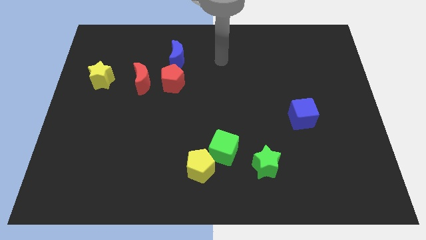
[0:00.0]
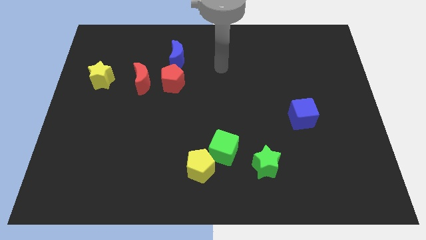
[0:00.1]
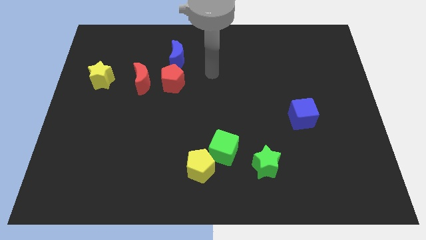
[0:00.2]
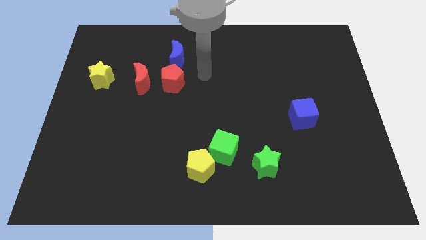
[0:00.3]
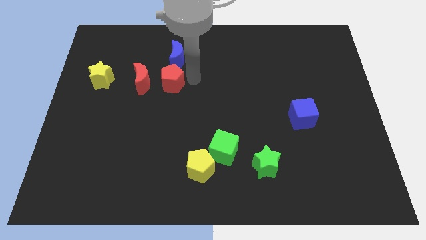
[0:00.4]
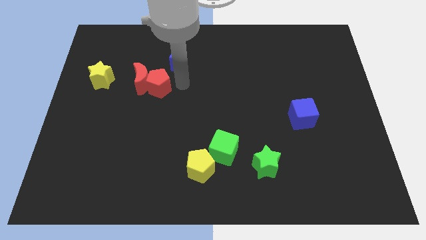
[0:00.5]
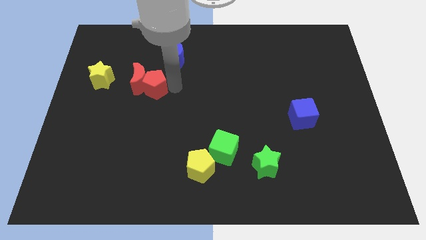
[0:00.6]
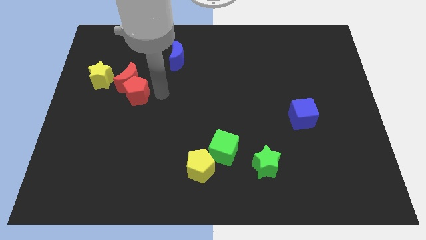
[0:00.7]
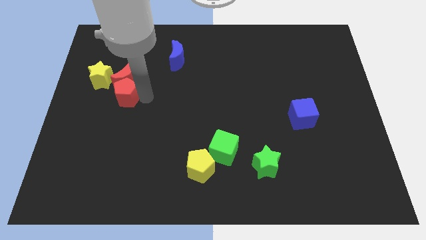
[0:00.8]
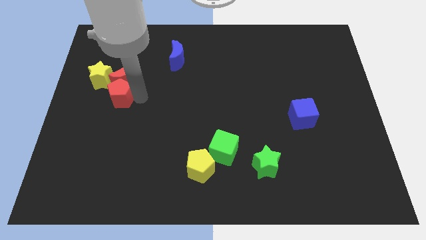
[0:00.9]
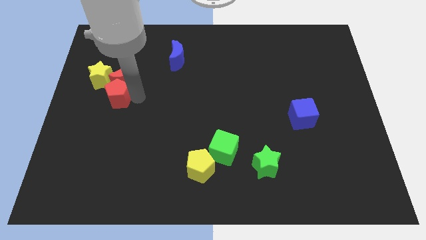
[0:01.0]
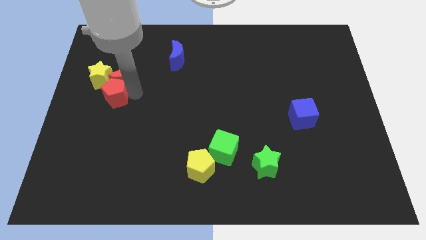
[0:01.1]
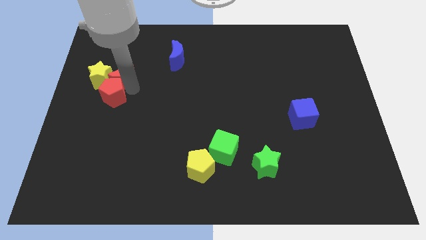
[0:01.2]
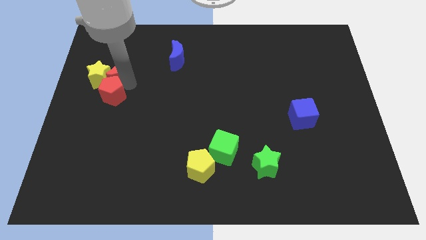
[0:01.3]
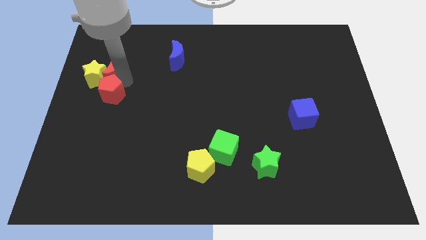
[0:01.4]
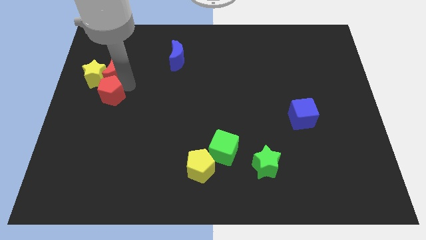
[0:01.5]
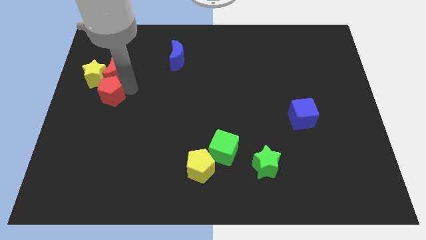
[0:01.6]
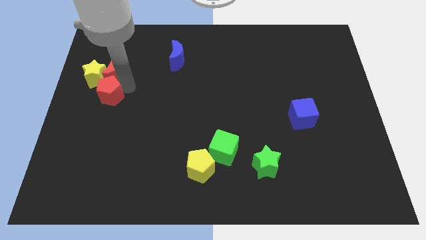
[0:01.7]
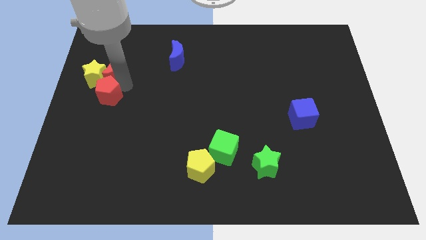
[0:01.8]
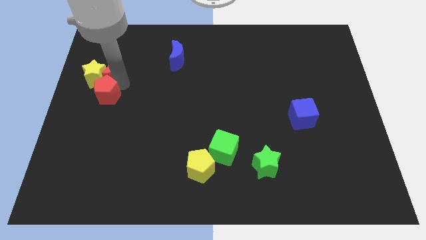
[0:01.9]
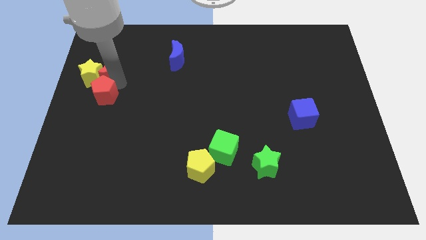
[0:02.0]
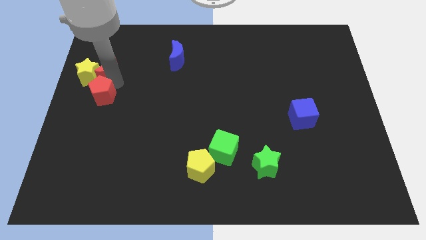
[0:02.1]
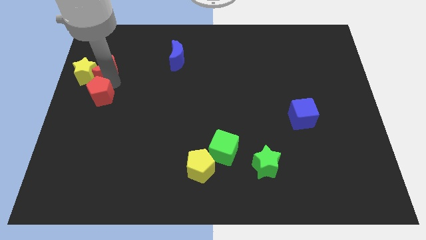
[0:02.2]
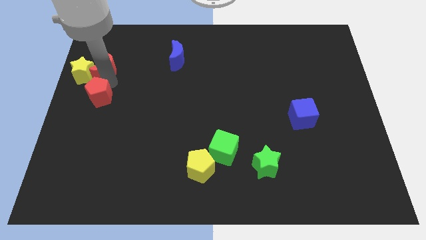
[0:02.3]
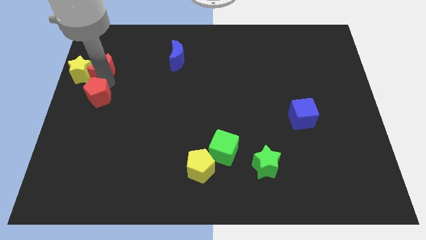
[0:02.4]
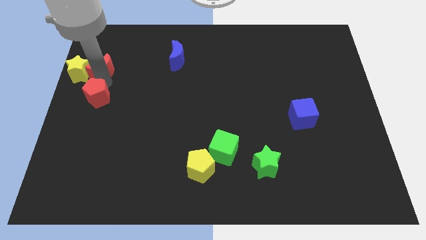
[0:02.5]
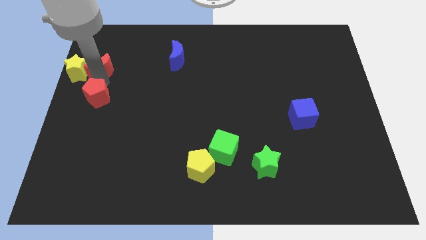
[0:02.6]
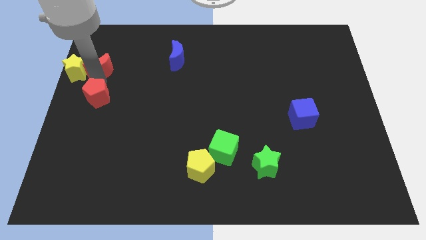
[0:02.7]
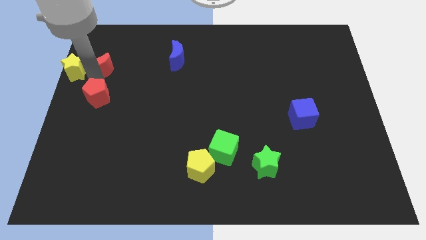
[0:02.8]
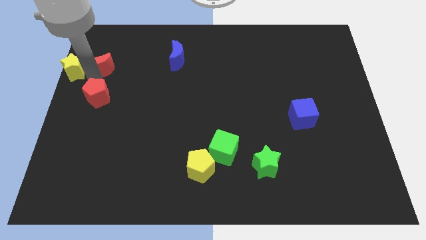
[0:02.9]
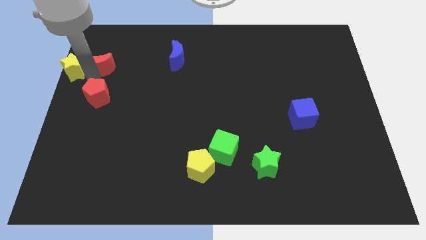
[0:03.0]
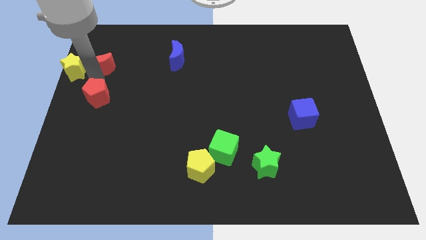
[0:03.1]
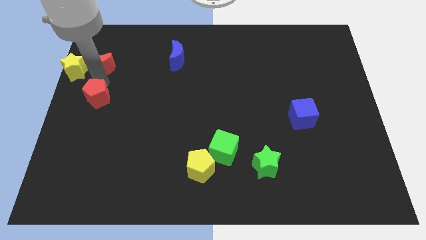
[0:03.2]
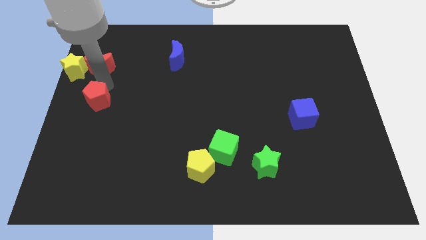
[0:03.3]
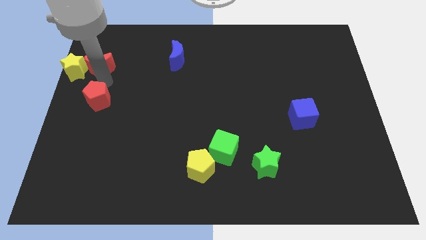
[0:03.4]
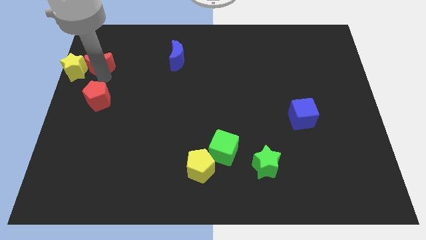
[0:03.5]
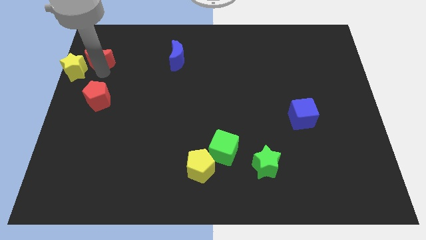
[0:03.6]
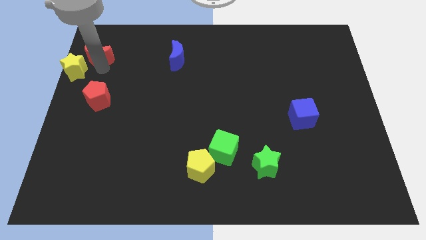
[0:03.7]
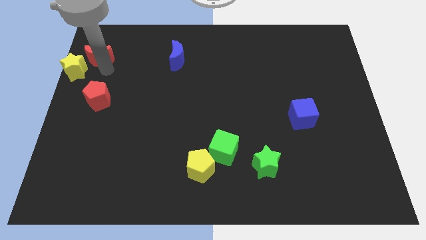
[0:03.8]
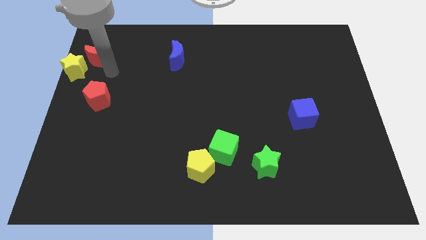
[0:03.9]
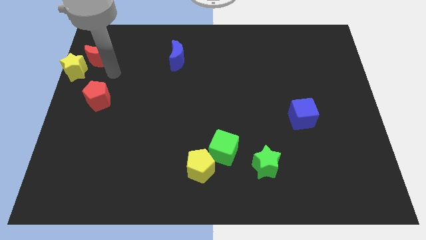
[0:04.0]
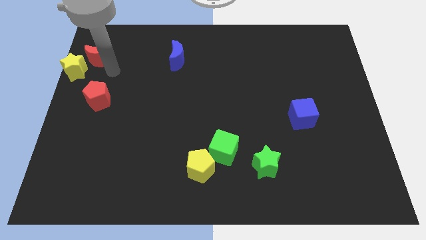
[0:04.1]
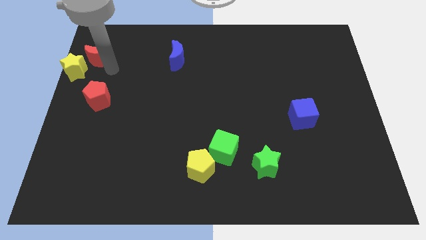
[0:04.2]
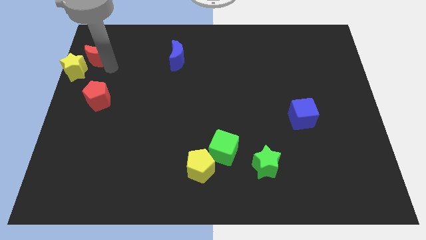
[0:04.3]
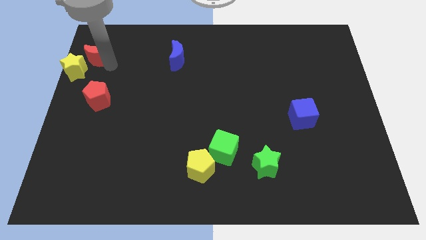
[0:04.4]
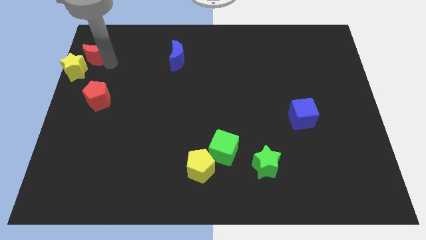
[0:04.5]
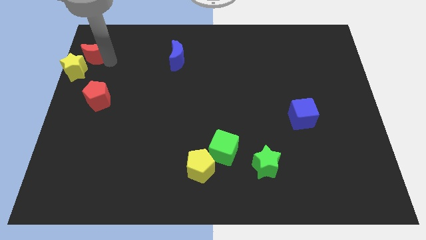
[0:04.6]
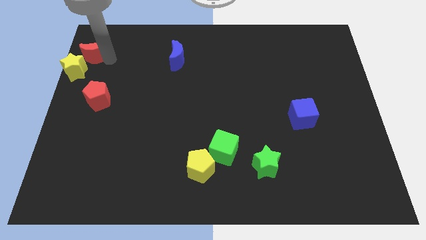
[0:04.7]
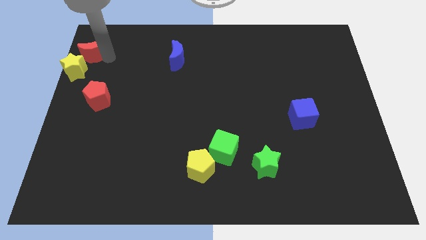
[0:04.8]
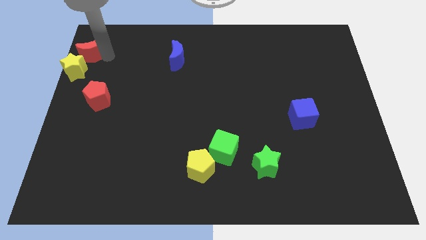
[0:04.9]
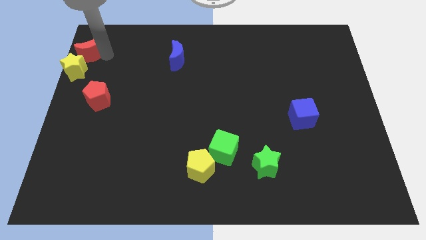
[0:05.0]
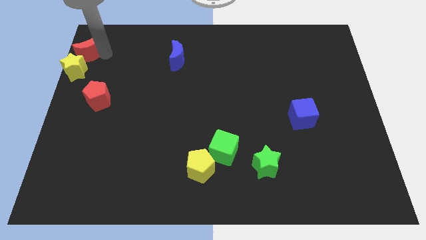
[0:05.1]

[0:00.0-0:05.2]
push the red moon to the top left
